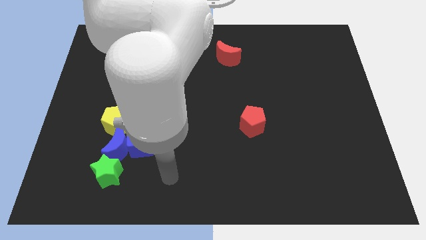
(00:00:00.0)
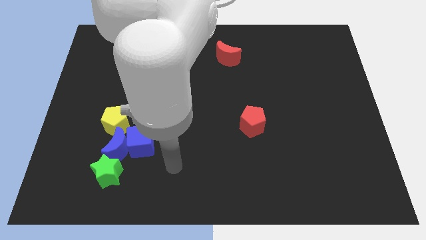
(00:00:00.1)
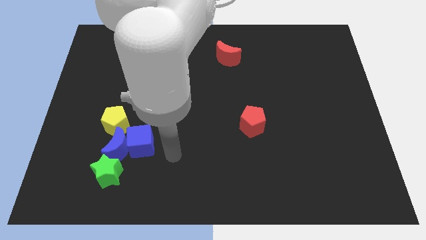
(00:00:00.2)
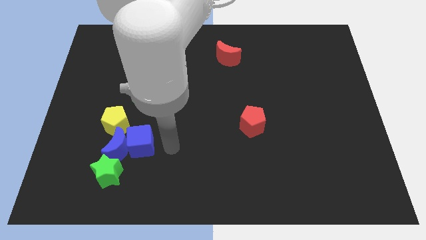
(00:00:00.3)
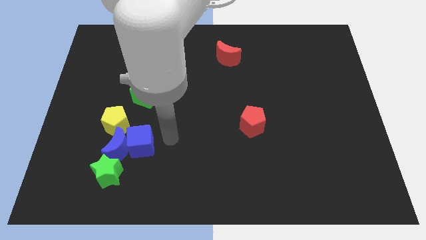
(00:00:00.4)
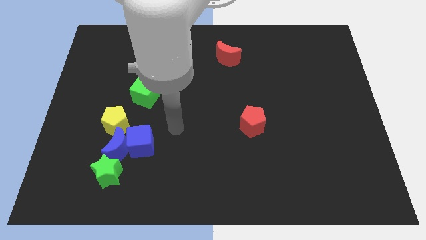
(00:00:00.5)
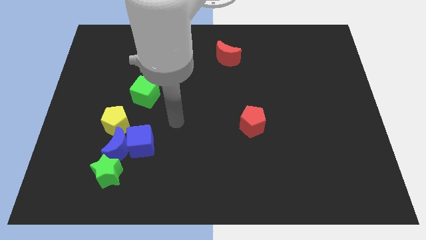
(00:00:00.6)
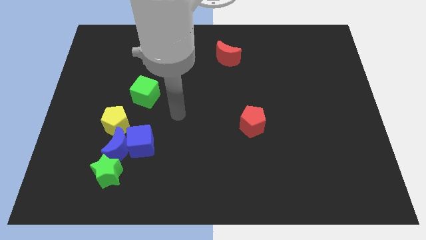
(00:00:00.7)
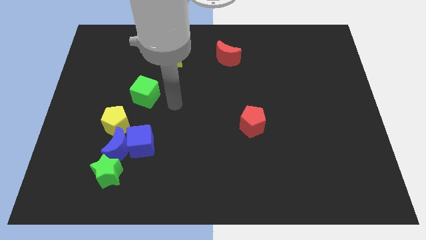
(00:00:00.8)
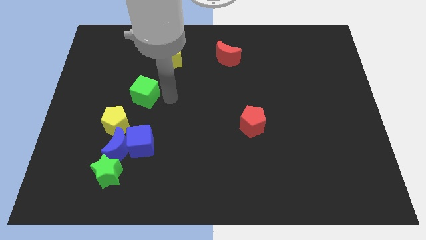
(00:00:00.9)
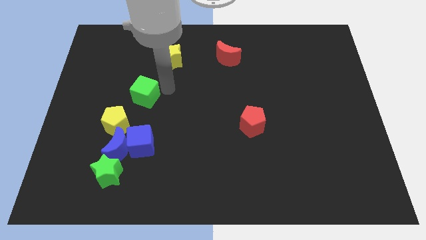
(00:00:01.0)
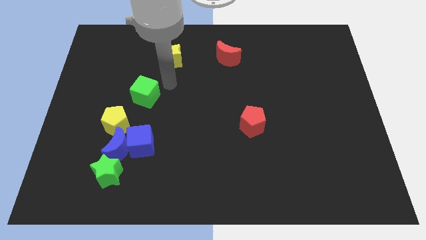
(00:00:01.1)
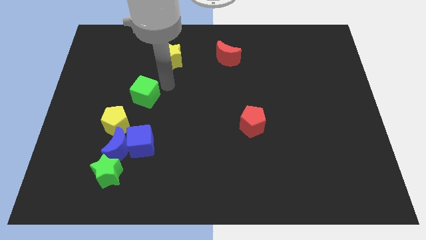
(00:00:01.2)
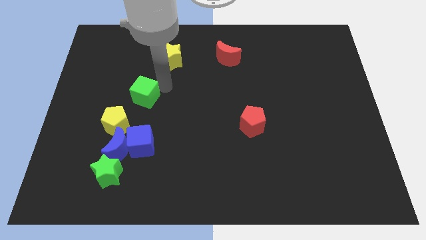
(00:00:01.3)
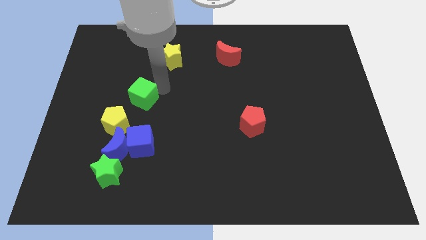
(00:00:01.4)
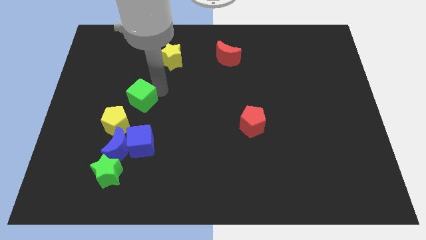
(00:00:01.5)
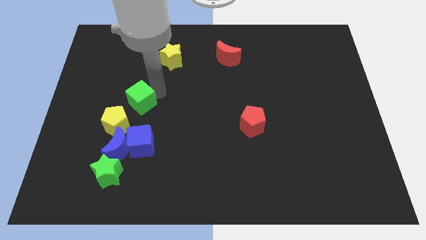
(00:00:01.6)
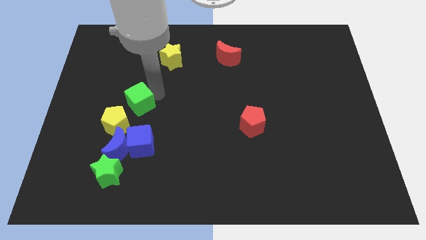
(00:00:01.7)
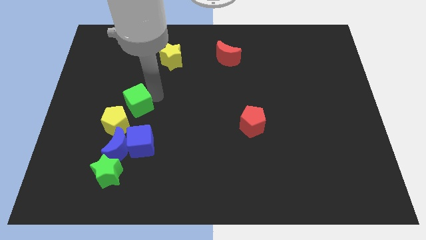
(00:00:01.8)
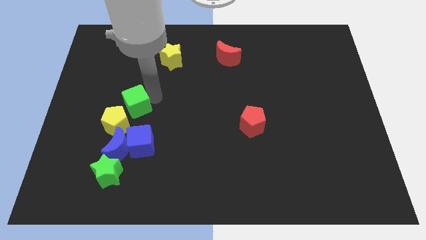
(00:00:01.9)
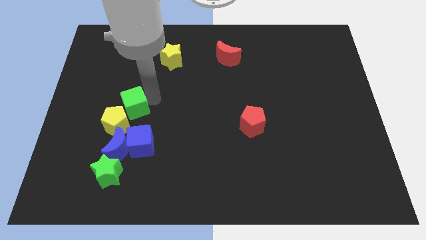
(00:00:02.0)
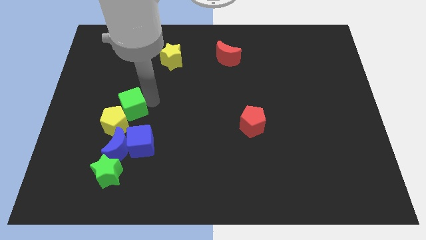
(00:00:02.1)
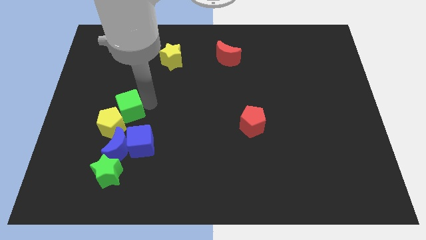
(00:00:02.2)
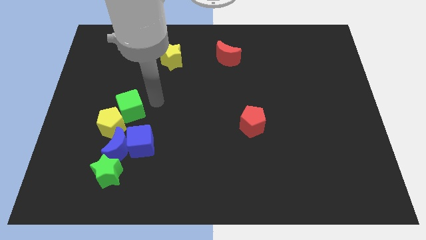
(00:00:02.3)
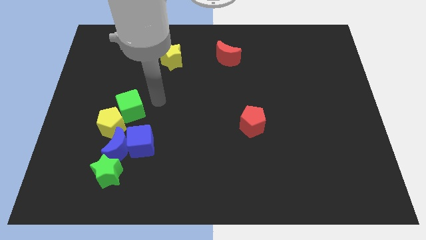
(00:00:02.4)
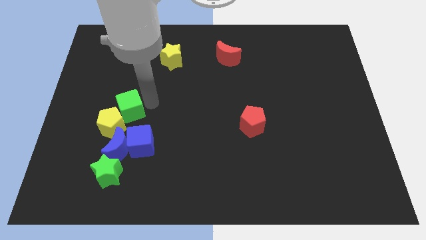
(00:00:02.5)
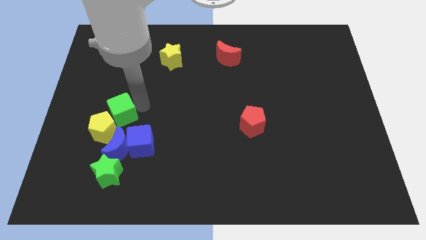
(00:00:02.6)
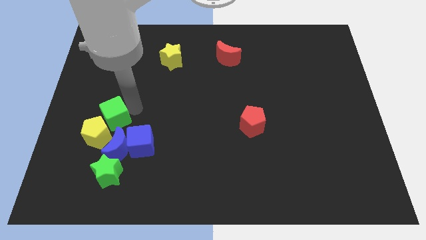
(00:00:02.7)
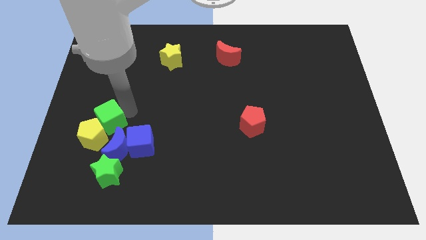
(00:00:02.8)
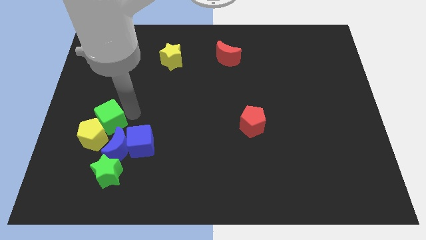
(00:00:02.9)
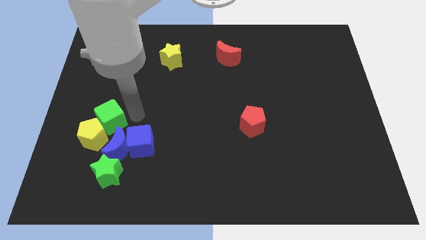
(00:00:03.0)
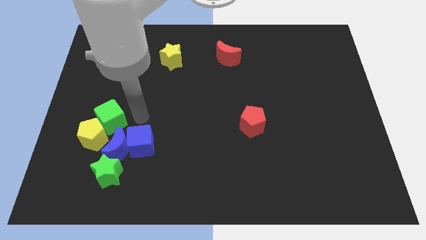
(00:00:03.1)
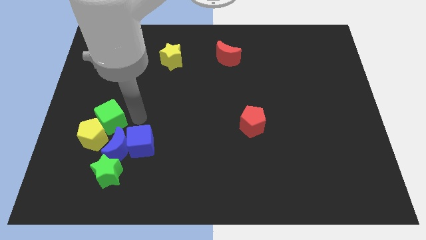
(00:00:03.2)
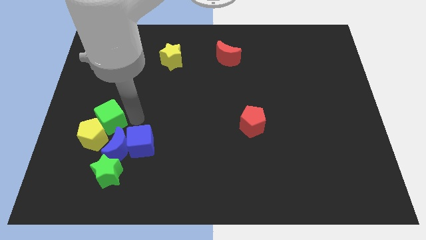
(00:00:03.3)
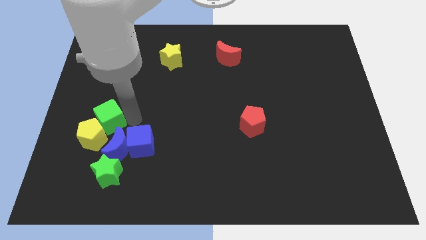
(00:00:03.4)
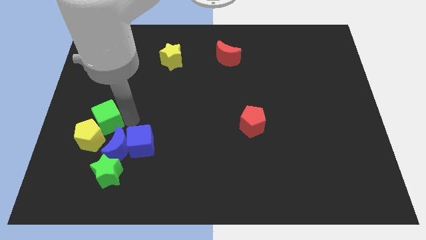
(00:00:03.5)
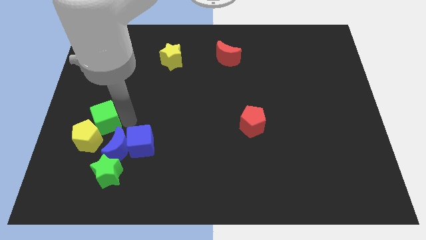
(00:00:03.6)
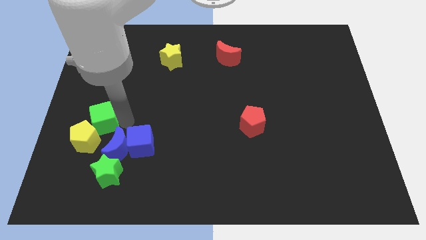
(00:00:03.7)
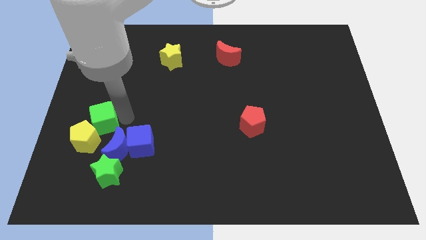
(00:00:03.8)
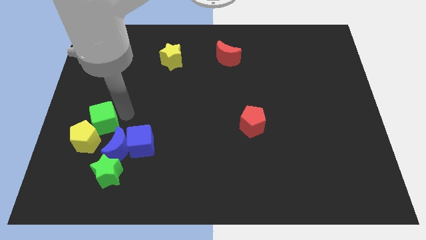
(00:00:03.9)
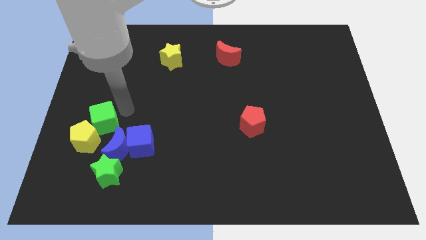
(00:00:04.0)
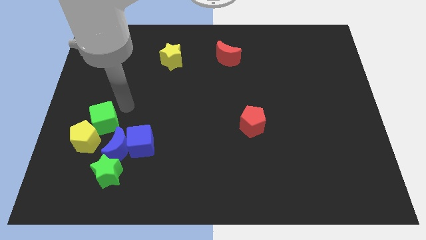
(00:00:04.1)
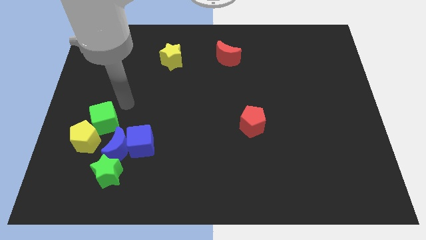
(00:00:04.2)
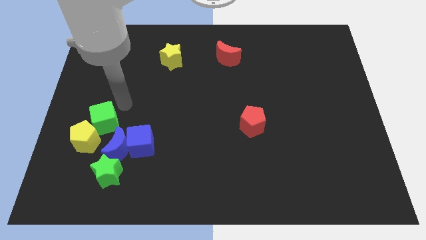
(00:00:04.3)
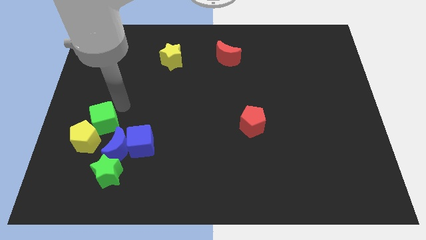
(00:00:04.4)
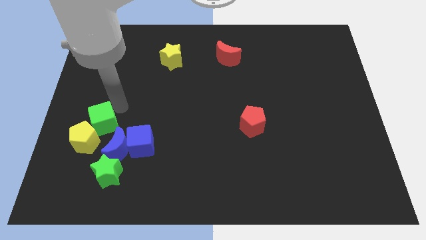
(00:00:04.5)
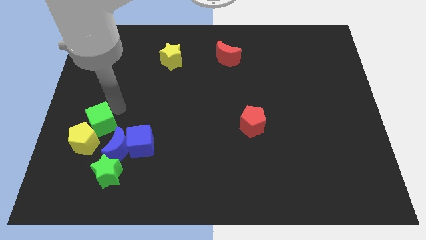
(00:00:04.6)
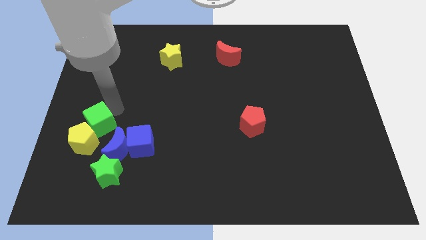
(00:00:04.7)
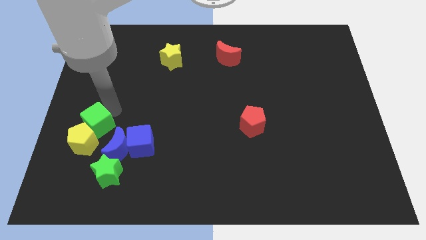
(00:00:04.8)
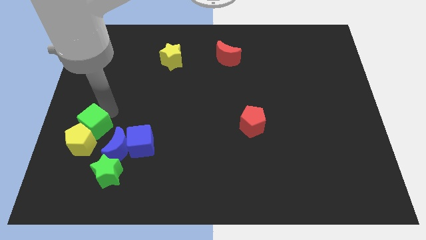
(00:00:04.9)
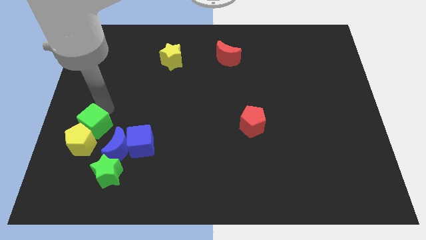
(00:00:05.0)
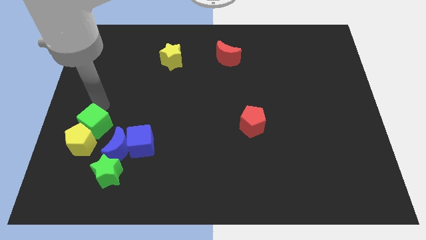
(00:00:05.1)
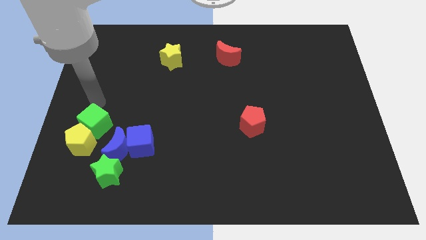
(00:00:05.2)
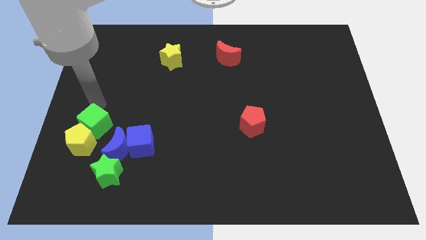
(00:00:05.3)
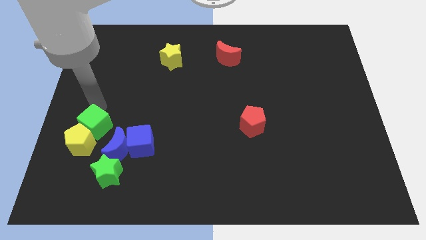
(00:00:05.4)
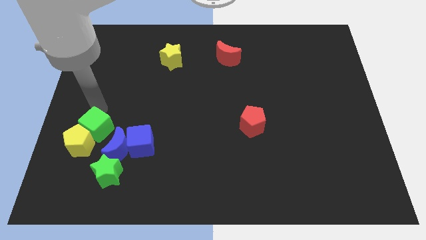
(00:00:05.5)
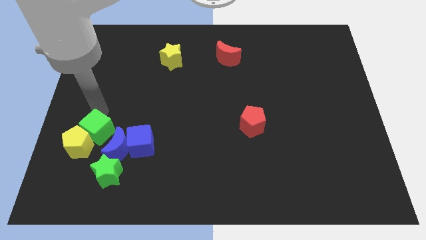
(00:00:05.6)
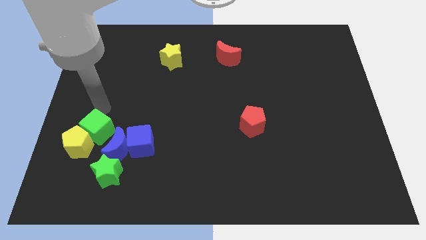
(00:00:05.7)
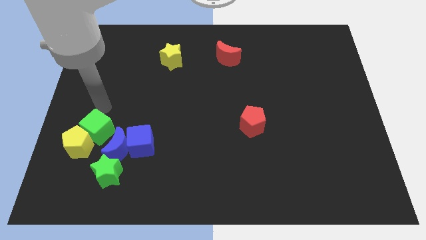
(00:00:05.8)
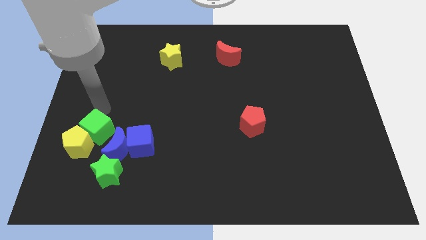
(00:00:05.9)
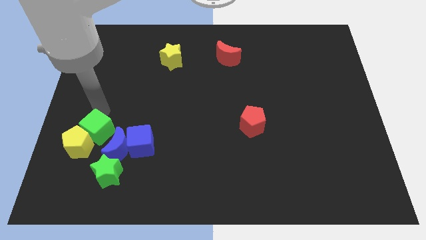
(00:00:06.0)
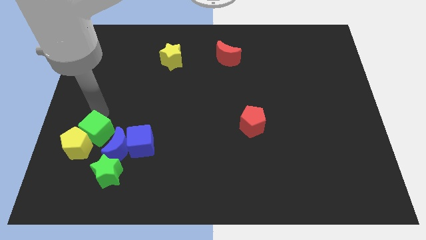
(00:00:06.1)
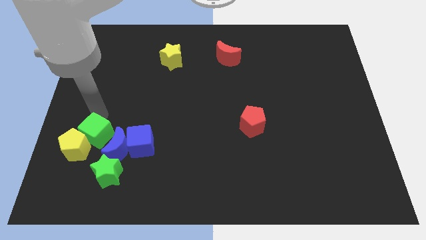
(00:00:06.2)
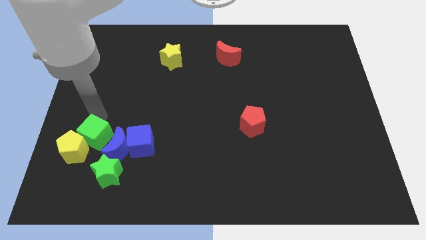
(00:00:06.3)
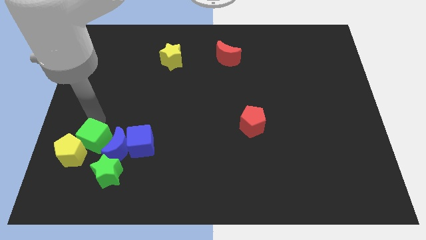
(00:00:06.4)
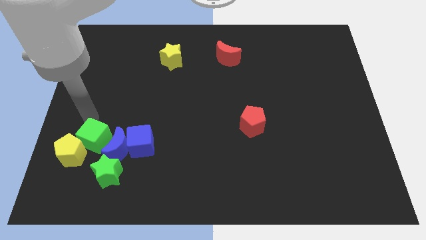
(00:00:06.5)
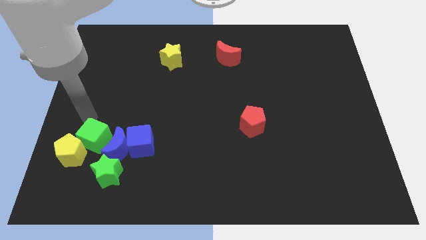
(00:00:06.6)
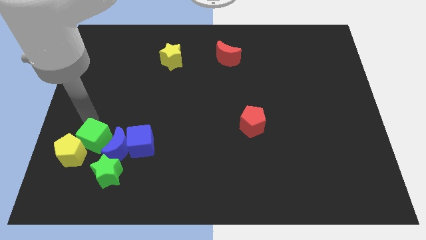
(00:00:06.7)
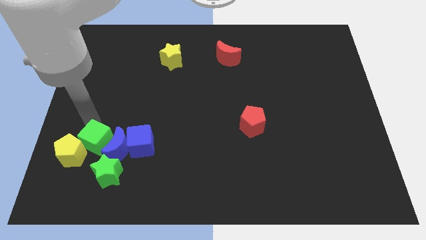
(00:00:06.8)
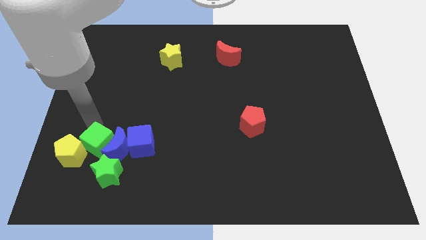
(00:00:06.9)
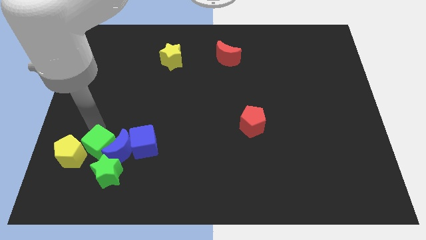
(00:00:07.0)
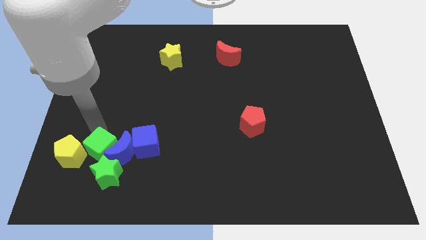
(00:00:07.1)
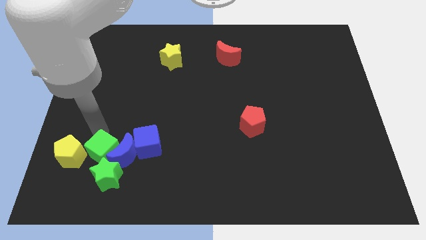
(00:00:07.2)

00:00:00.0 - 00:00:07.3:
move the green cube towards the green star
